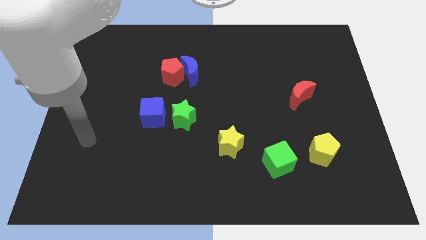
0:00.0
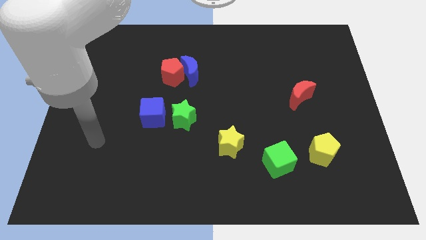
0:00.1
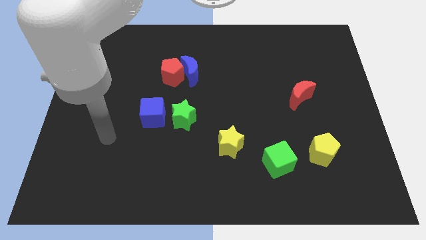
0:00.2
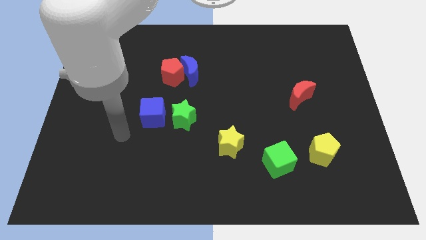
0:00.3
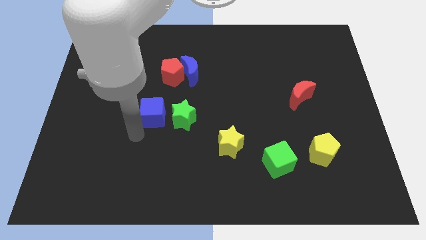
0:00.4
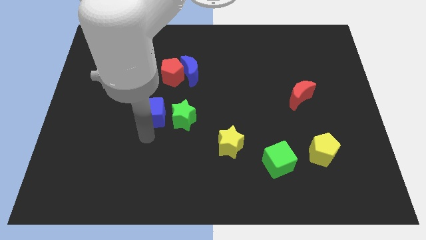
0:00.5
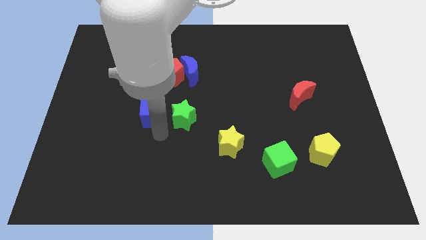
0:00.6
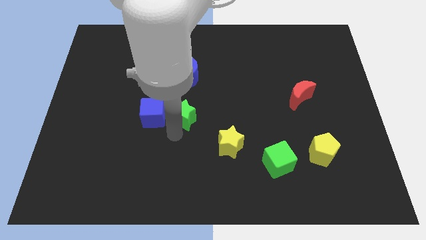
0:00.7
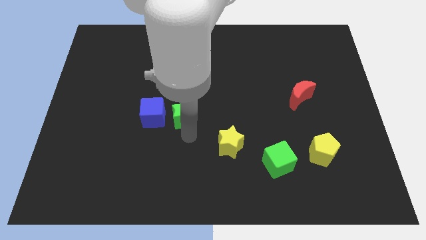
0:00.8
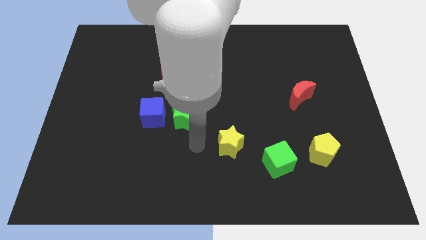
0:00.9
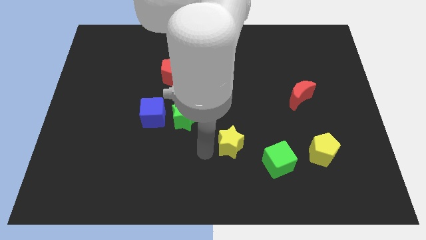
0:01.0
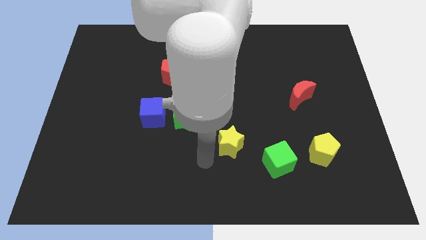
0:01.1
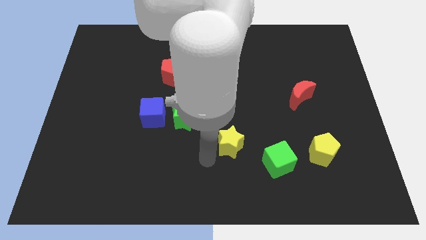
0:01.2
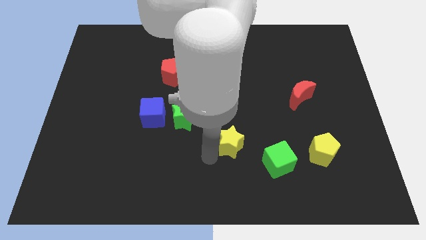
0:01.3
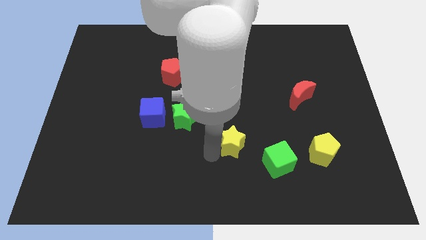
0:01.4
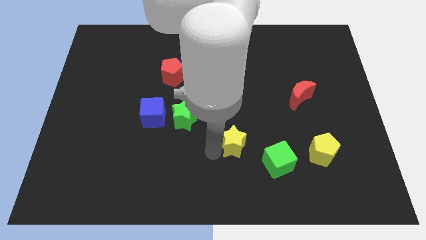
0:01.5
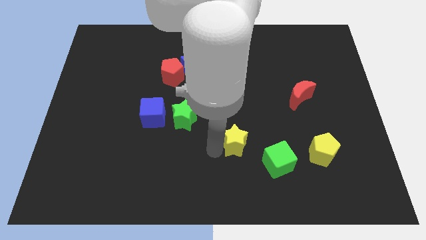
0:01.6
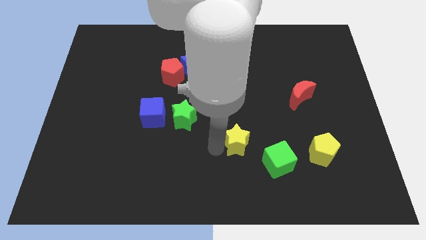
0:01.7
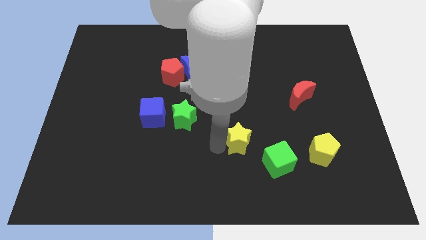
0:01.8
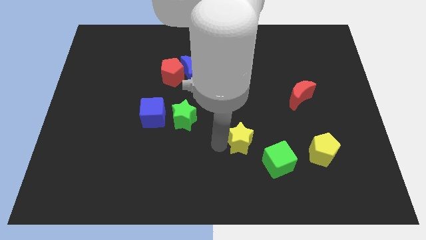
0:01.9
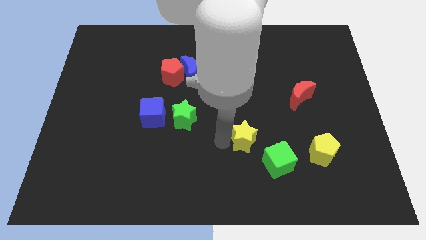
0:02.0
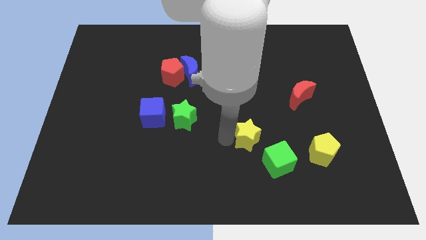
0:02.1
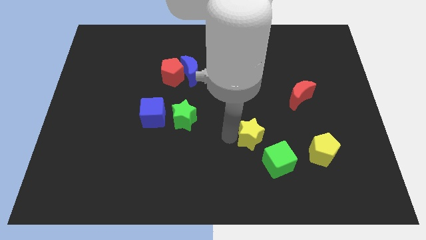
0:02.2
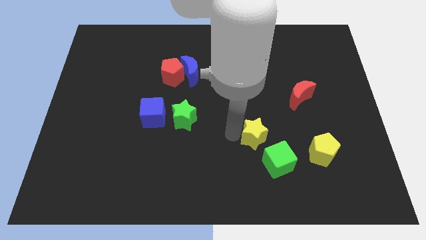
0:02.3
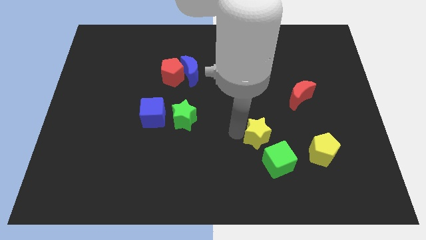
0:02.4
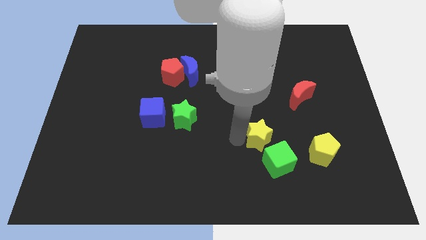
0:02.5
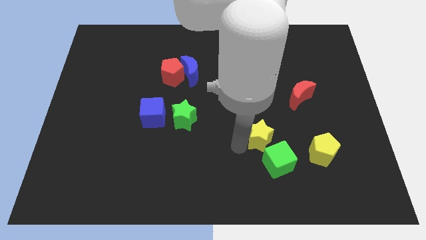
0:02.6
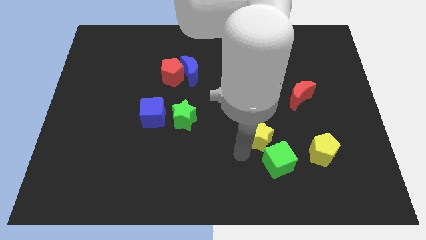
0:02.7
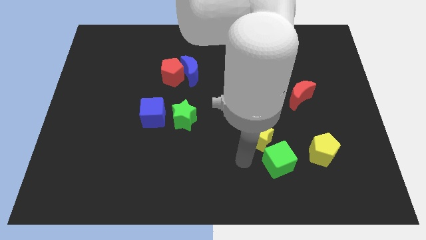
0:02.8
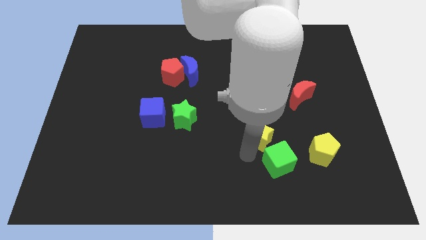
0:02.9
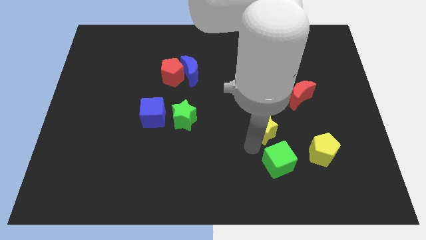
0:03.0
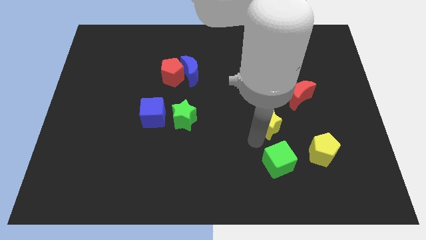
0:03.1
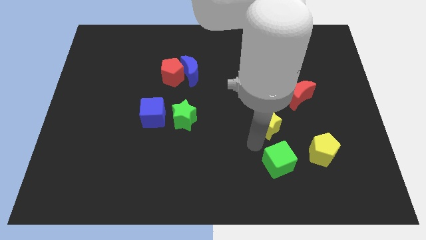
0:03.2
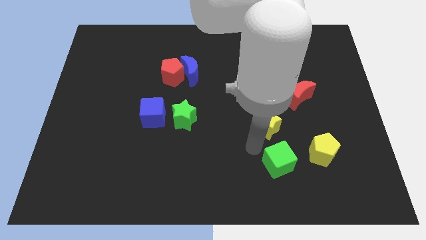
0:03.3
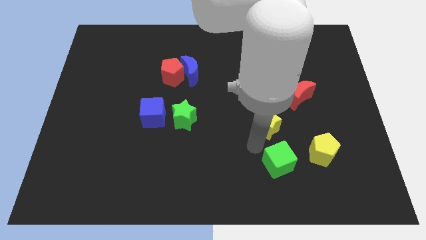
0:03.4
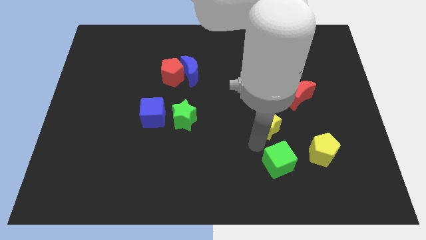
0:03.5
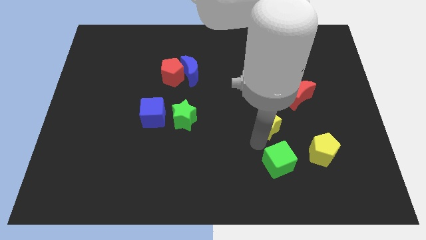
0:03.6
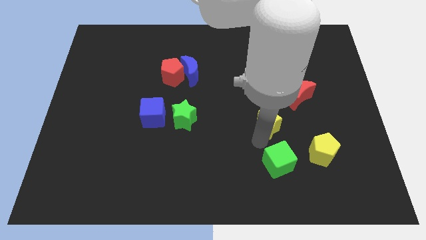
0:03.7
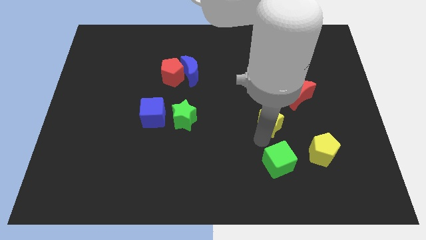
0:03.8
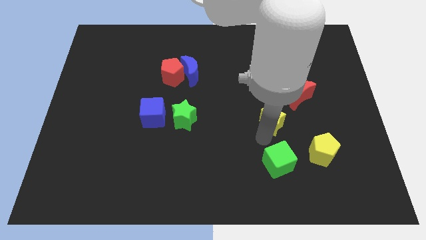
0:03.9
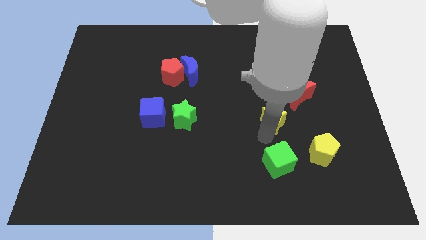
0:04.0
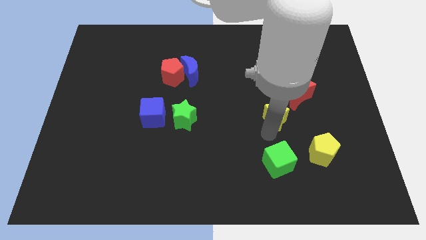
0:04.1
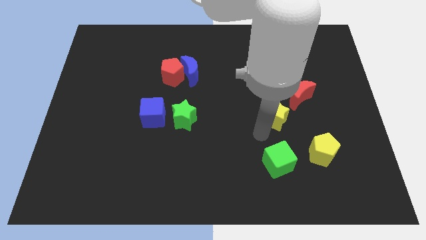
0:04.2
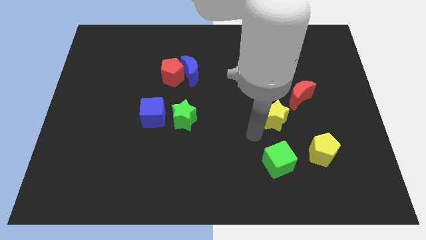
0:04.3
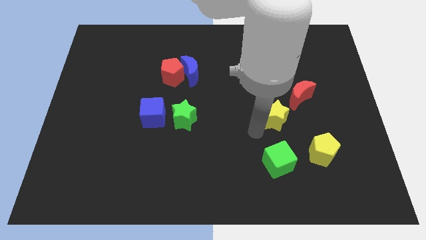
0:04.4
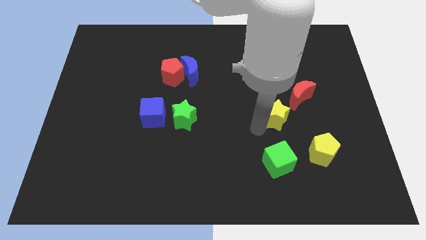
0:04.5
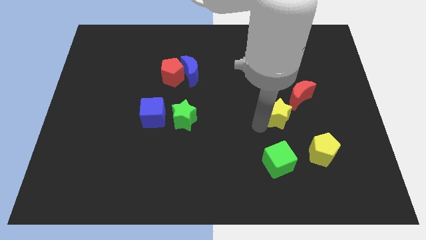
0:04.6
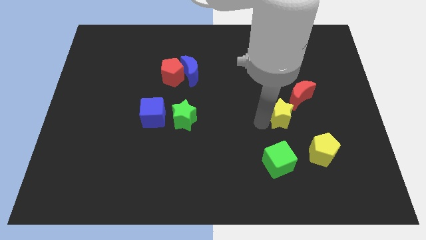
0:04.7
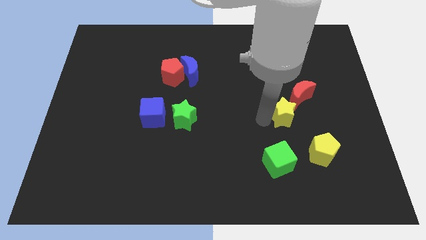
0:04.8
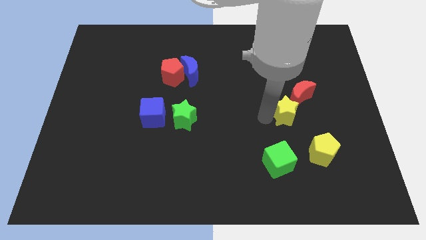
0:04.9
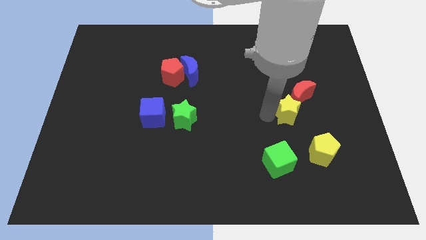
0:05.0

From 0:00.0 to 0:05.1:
slide the yellow star towards the red moon

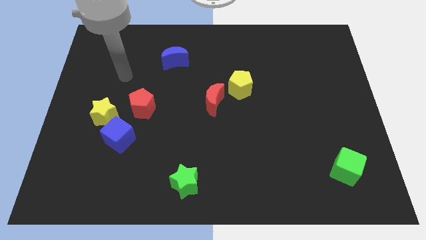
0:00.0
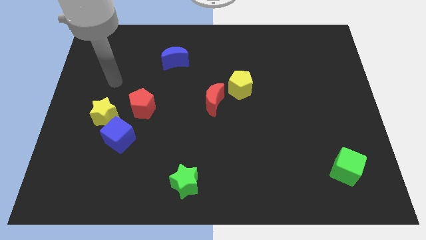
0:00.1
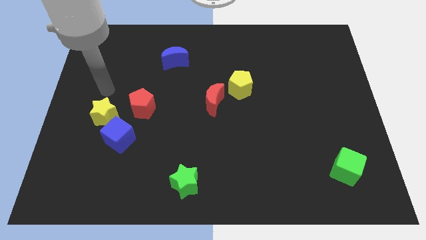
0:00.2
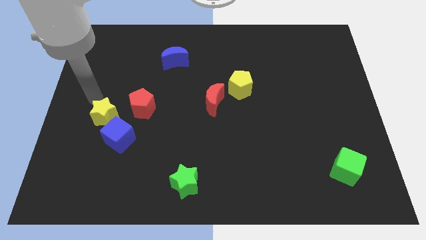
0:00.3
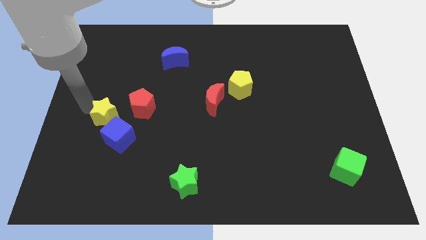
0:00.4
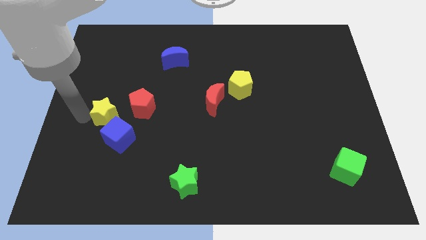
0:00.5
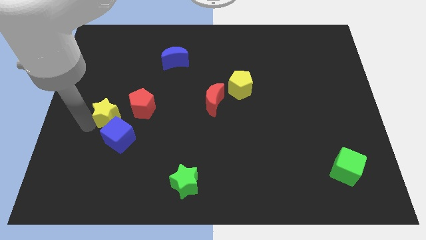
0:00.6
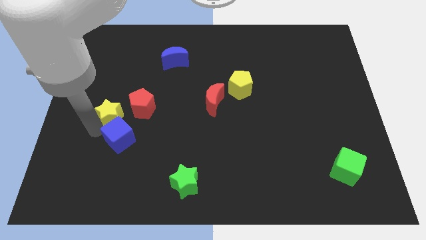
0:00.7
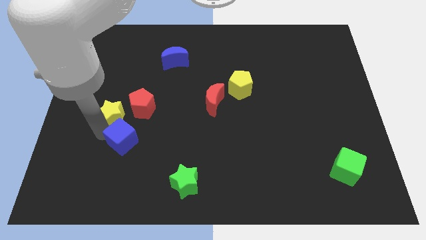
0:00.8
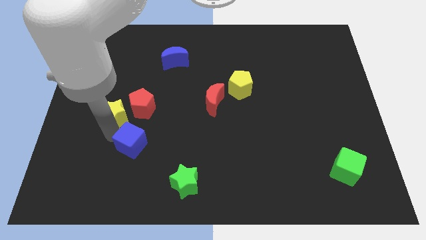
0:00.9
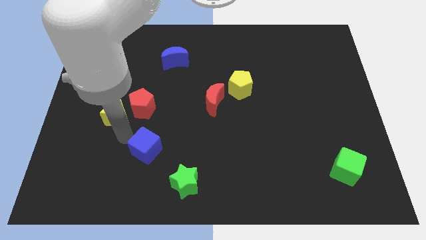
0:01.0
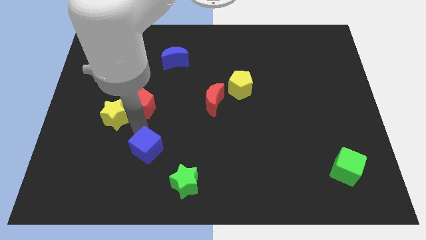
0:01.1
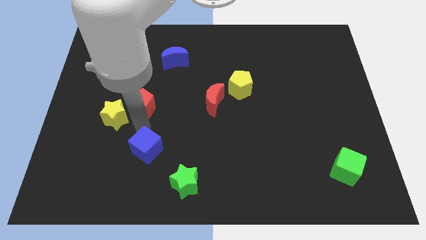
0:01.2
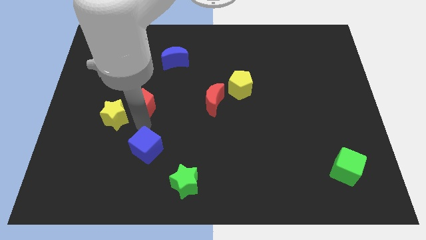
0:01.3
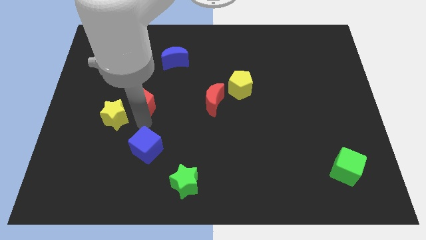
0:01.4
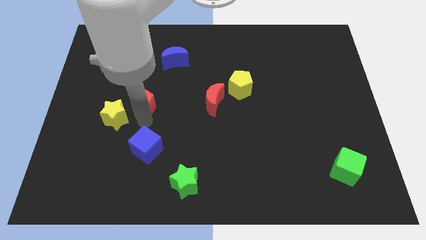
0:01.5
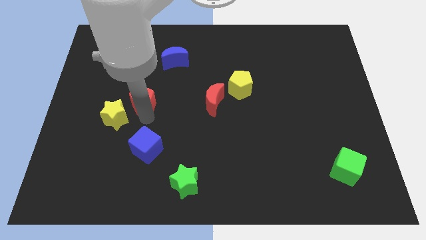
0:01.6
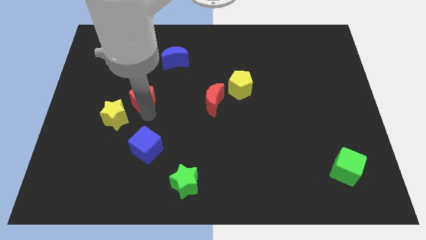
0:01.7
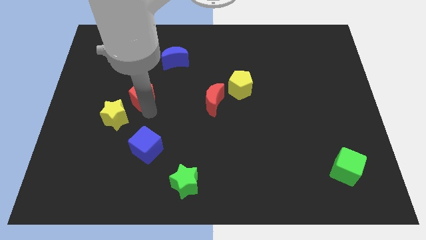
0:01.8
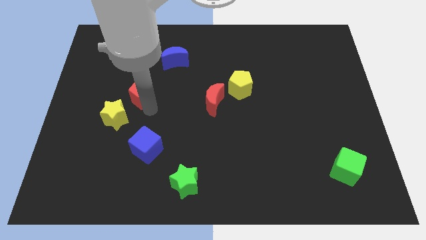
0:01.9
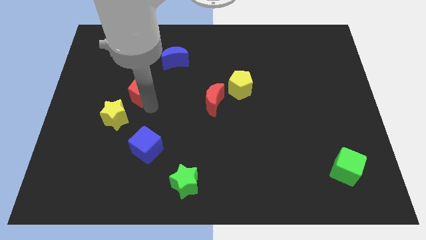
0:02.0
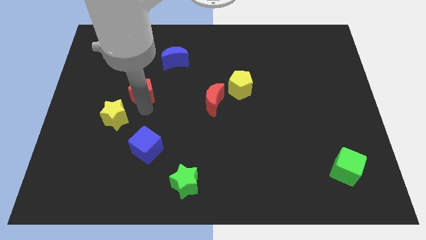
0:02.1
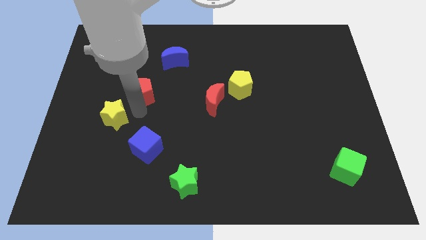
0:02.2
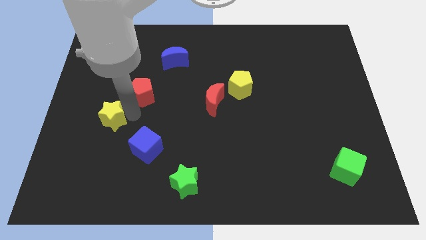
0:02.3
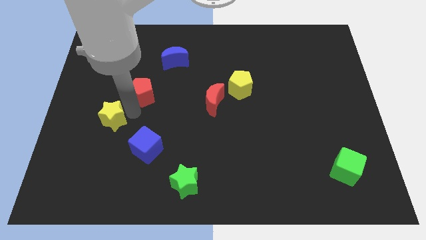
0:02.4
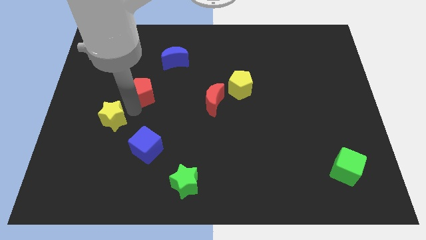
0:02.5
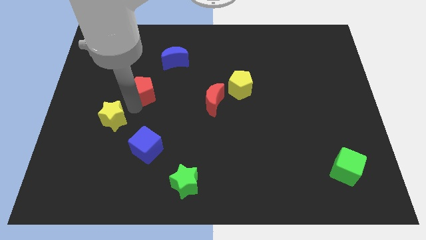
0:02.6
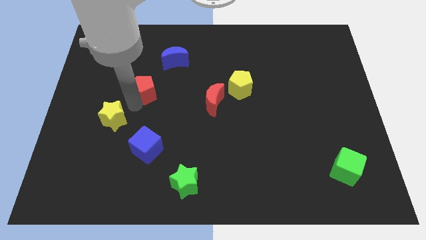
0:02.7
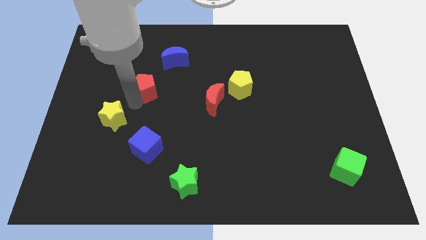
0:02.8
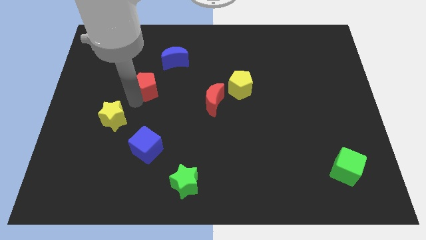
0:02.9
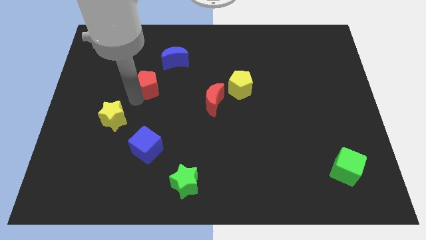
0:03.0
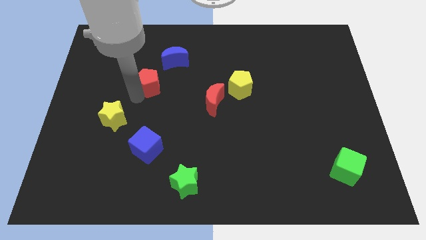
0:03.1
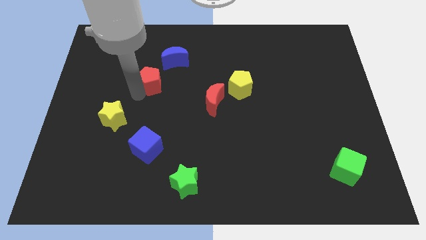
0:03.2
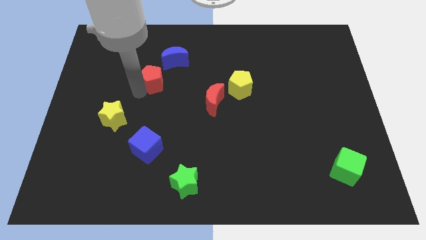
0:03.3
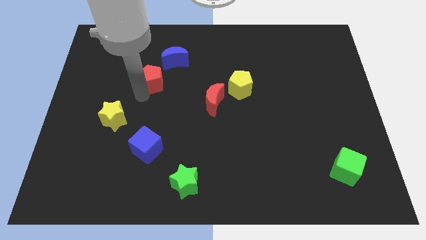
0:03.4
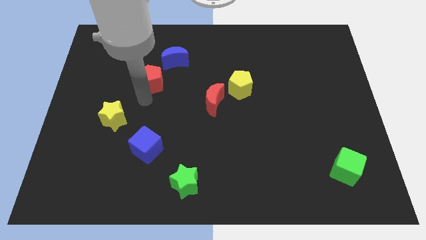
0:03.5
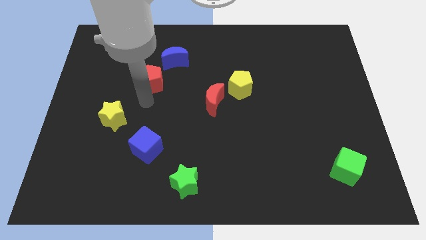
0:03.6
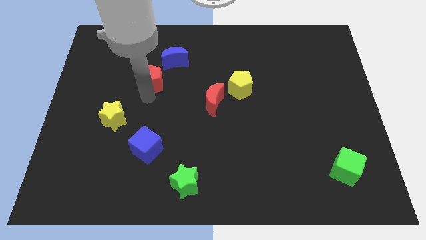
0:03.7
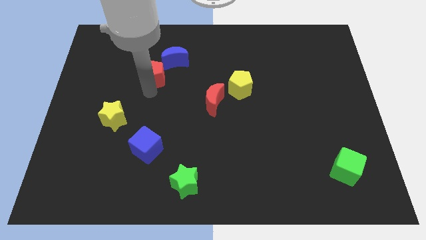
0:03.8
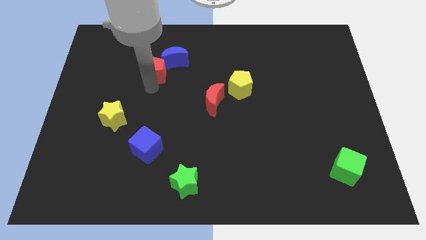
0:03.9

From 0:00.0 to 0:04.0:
slide the red pentagon towards the blue moon
